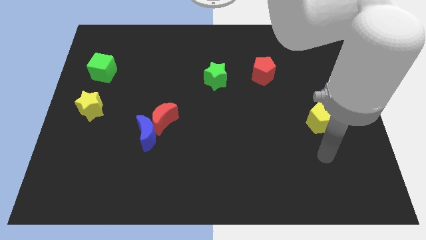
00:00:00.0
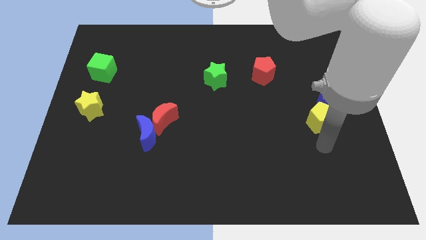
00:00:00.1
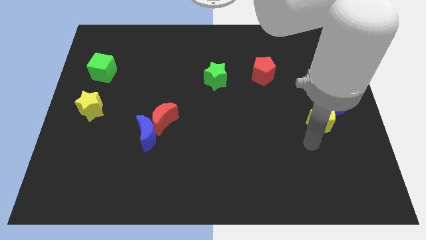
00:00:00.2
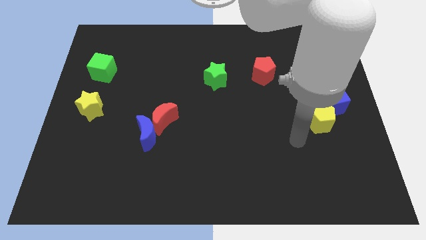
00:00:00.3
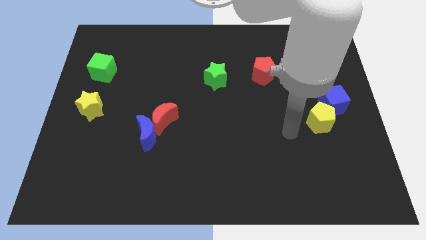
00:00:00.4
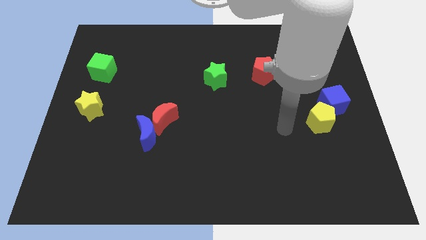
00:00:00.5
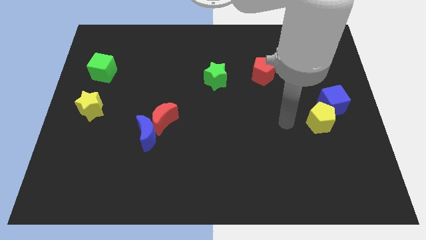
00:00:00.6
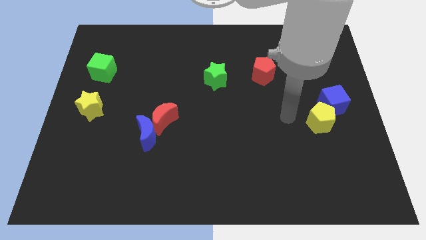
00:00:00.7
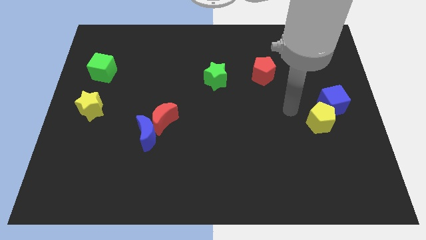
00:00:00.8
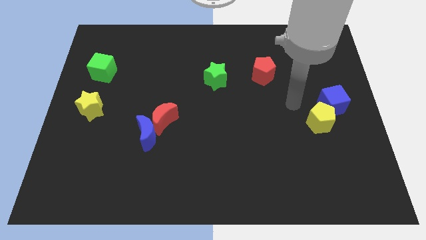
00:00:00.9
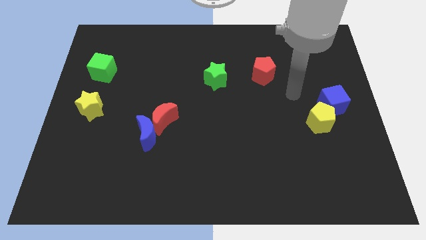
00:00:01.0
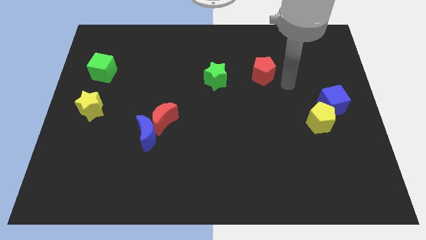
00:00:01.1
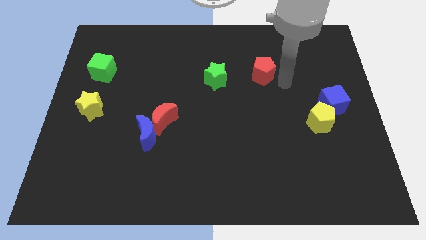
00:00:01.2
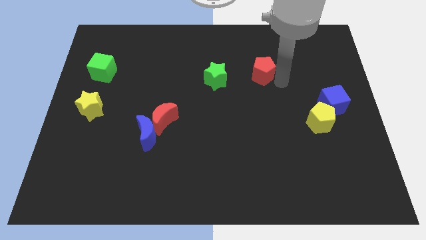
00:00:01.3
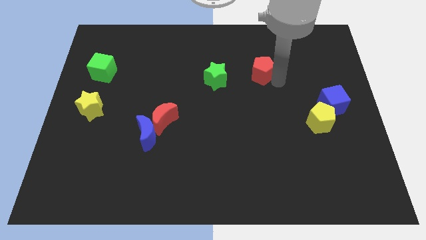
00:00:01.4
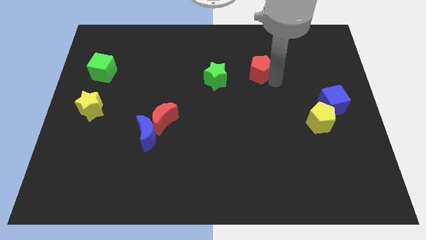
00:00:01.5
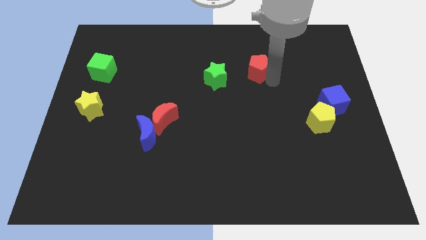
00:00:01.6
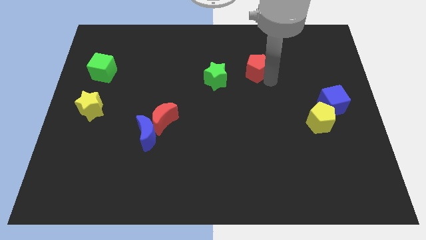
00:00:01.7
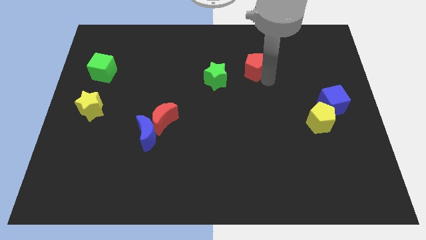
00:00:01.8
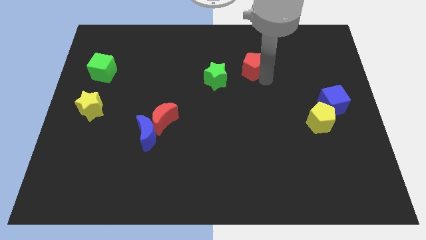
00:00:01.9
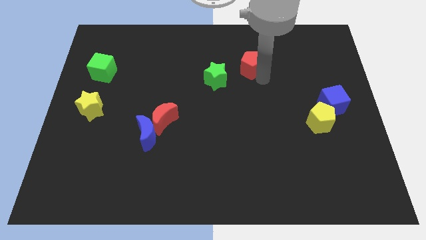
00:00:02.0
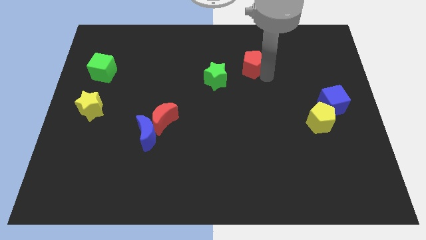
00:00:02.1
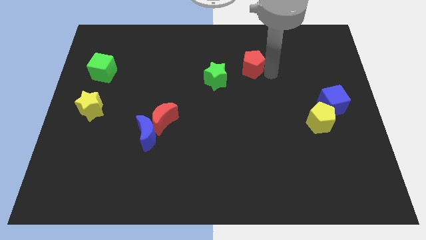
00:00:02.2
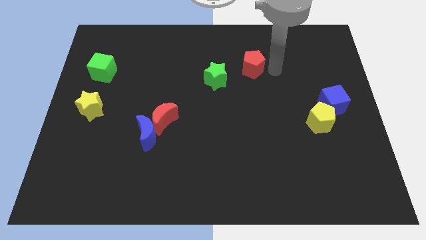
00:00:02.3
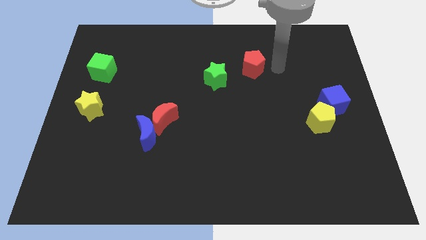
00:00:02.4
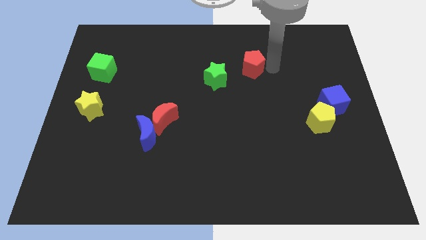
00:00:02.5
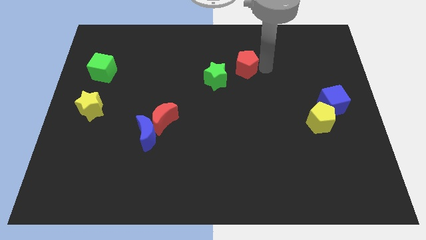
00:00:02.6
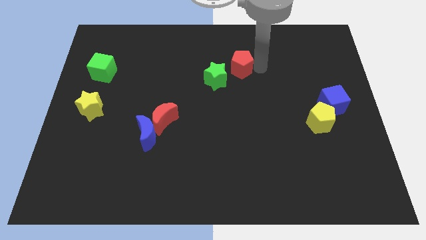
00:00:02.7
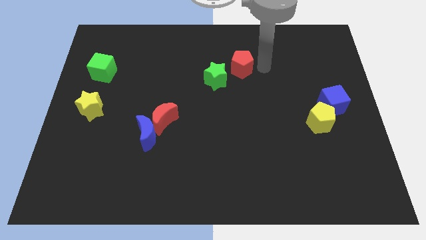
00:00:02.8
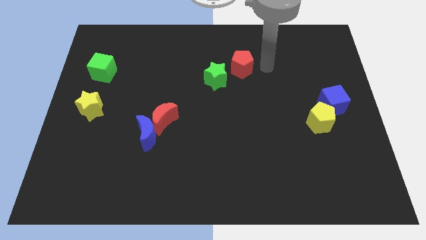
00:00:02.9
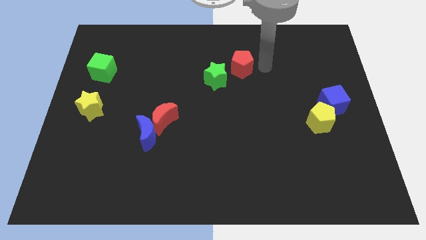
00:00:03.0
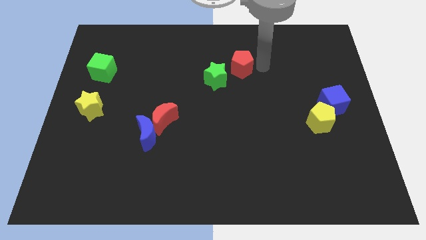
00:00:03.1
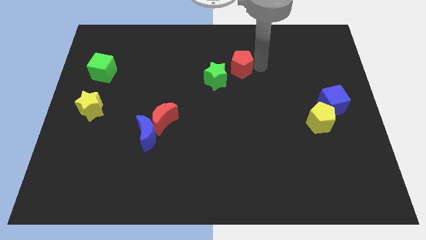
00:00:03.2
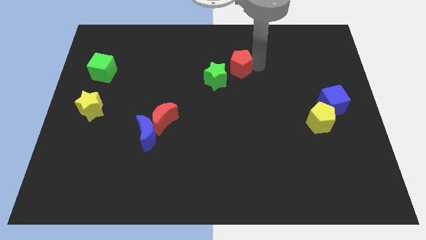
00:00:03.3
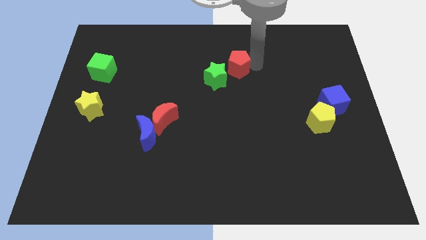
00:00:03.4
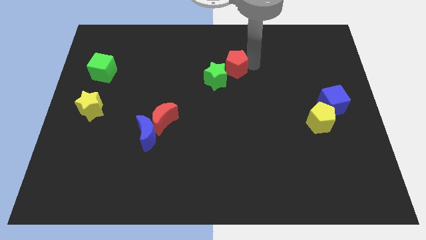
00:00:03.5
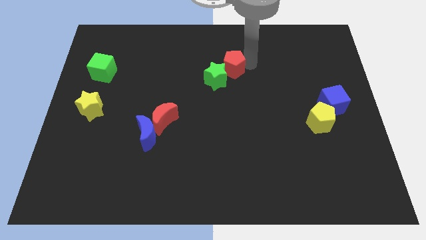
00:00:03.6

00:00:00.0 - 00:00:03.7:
move the red pentagon slightly left

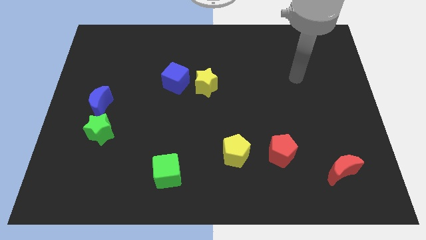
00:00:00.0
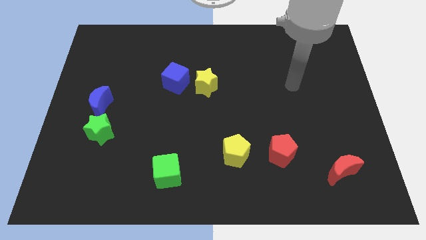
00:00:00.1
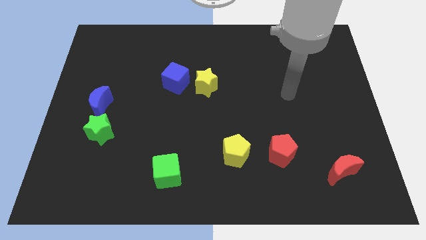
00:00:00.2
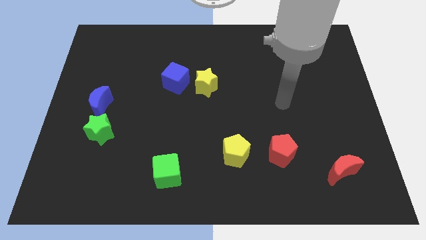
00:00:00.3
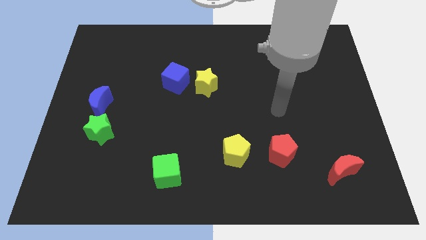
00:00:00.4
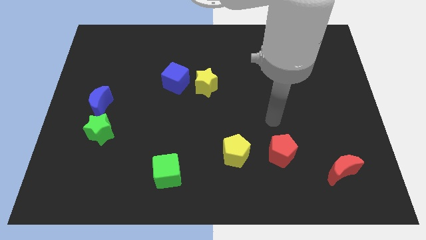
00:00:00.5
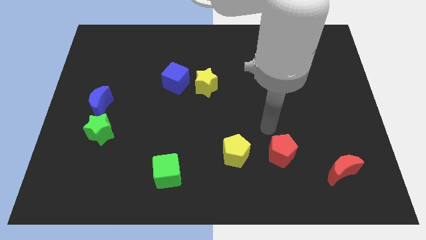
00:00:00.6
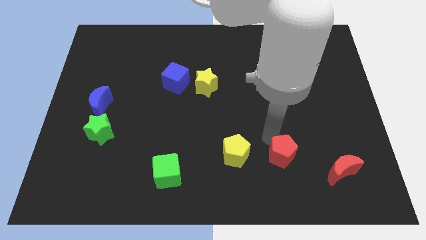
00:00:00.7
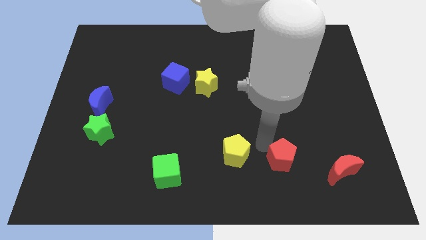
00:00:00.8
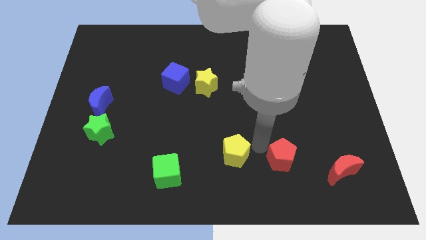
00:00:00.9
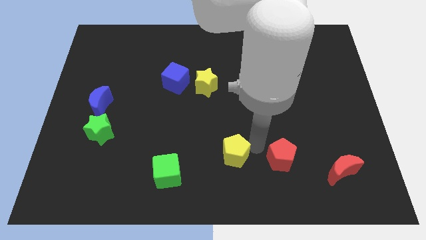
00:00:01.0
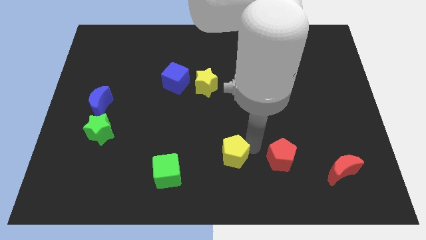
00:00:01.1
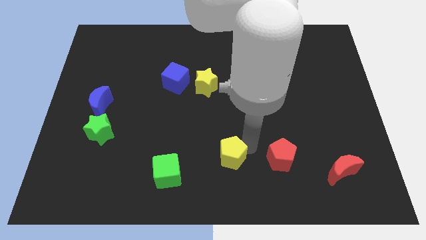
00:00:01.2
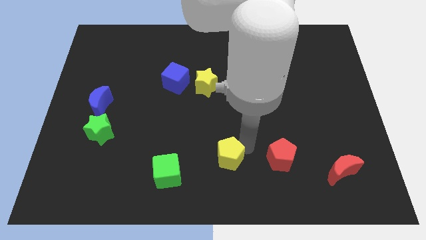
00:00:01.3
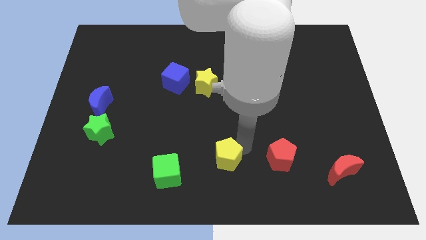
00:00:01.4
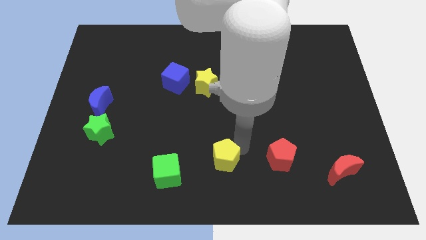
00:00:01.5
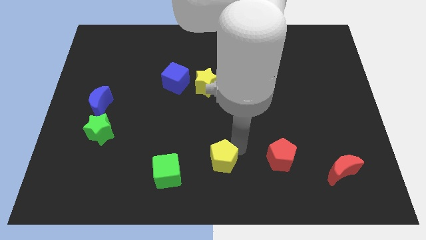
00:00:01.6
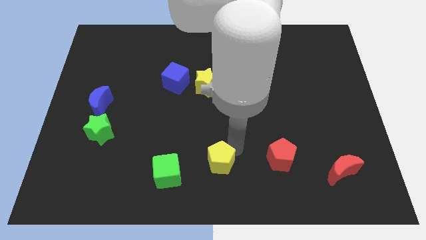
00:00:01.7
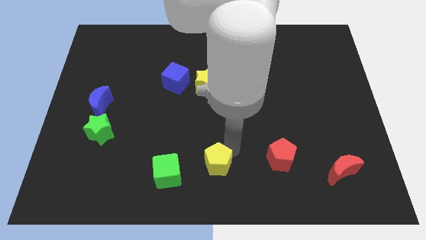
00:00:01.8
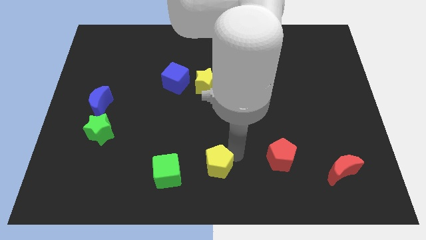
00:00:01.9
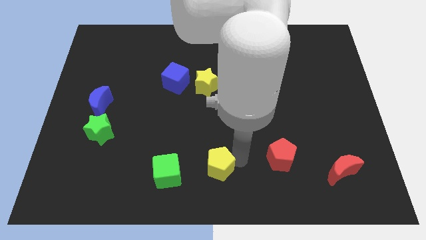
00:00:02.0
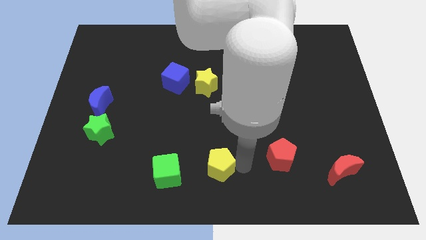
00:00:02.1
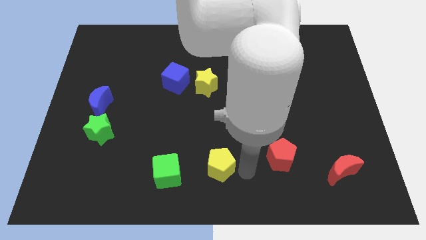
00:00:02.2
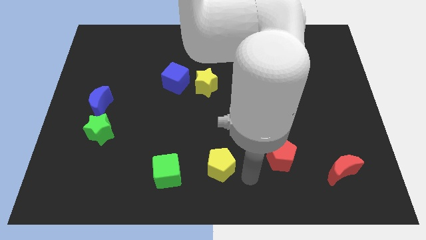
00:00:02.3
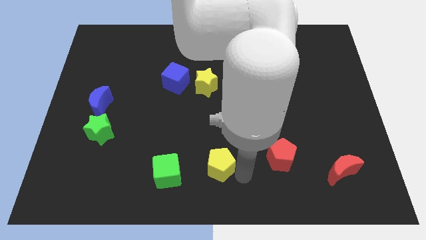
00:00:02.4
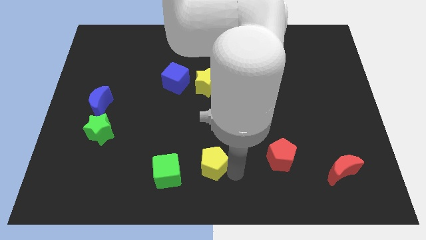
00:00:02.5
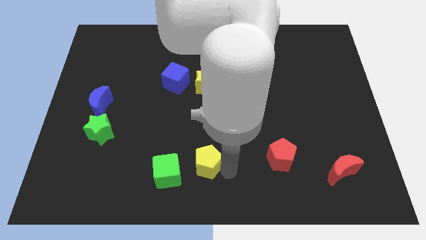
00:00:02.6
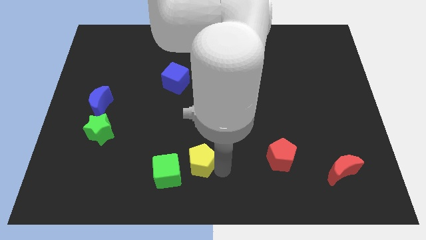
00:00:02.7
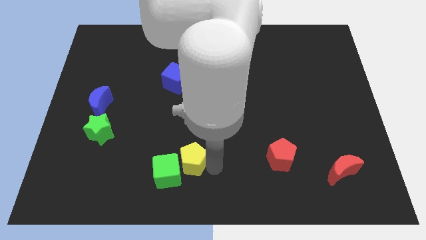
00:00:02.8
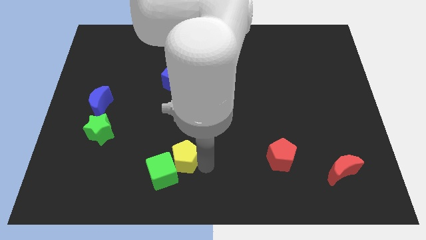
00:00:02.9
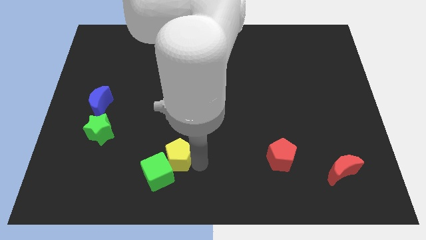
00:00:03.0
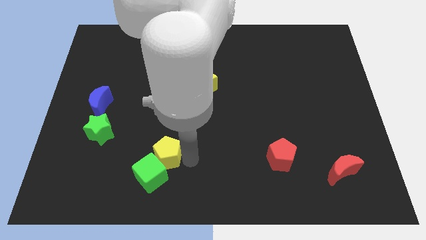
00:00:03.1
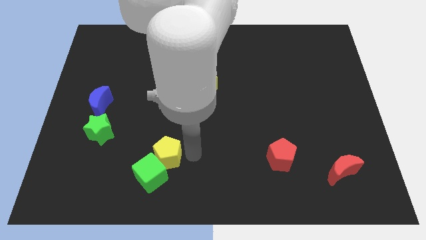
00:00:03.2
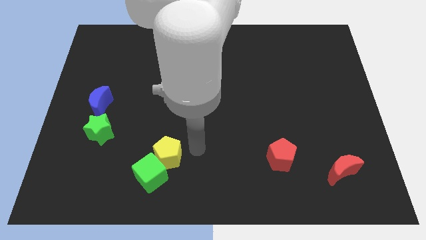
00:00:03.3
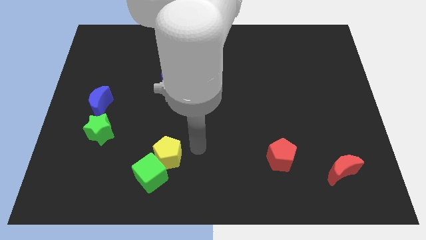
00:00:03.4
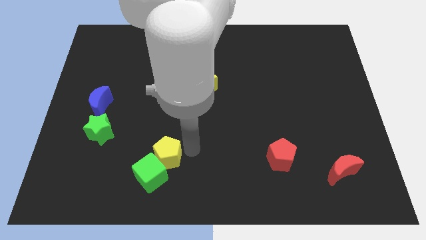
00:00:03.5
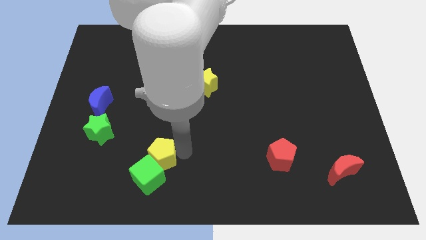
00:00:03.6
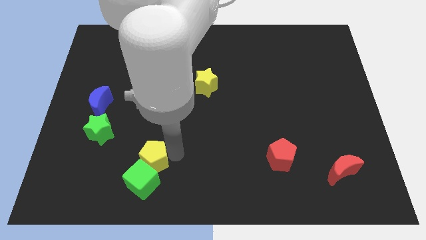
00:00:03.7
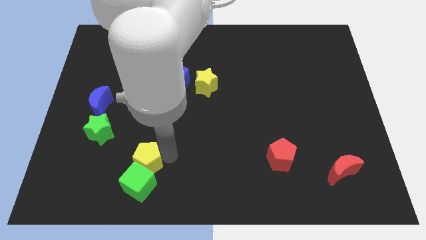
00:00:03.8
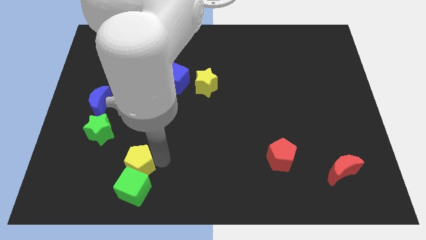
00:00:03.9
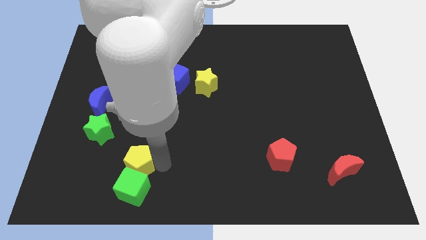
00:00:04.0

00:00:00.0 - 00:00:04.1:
push the yellow pentagon to the left
